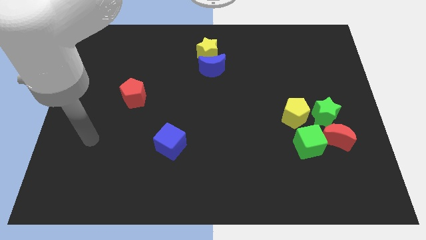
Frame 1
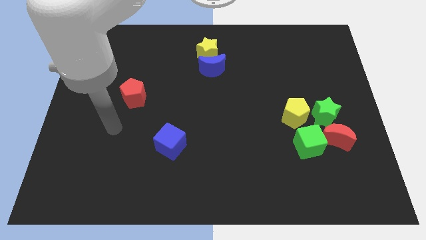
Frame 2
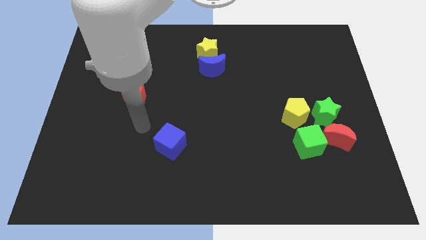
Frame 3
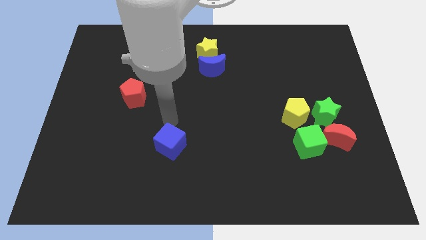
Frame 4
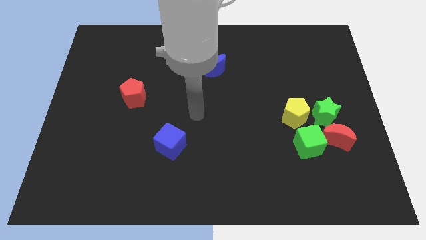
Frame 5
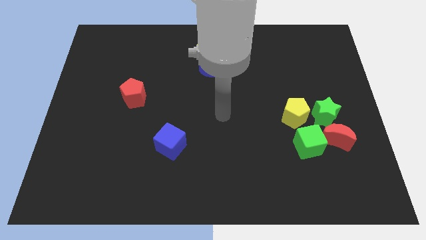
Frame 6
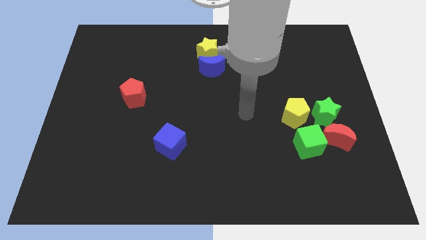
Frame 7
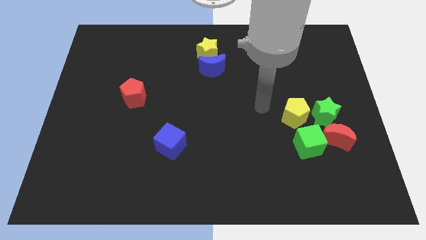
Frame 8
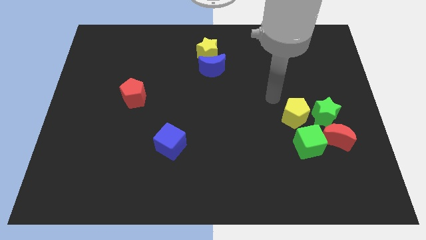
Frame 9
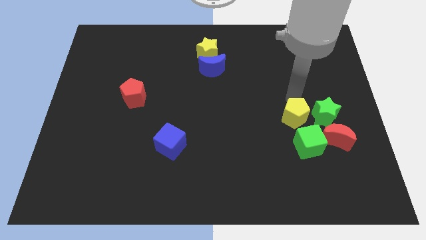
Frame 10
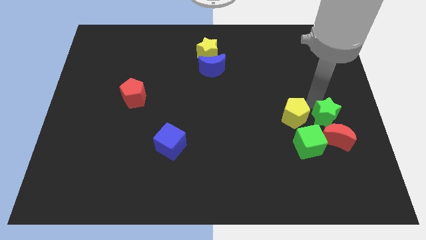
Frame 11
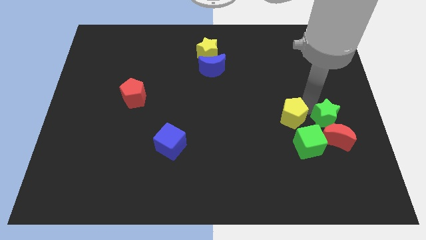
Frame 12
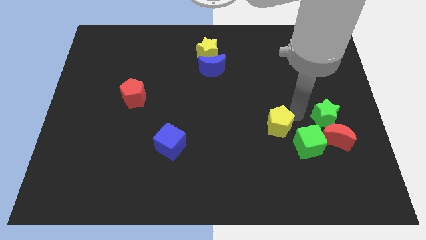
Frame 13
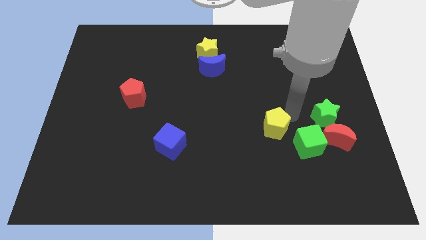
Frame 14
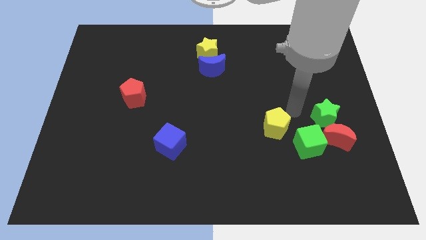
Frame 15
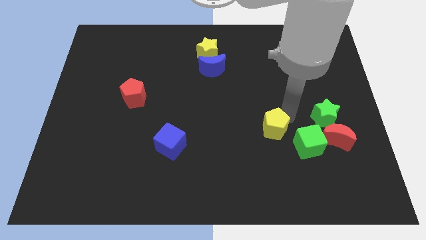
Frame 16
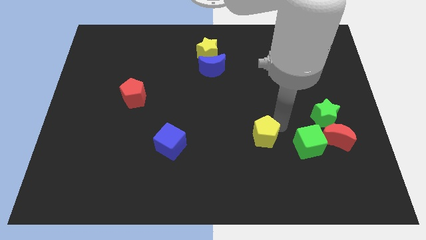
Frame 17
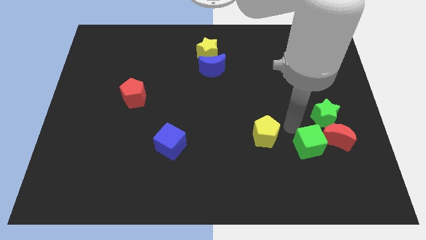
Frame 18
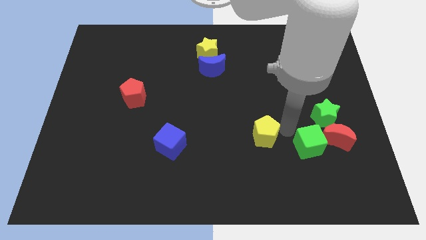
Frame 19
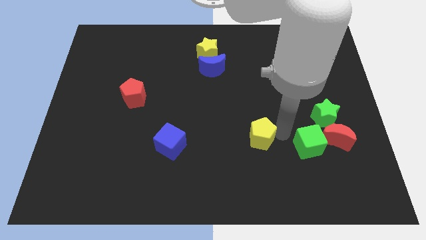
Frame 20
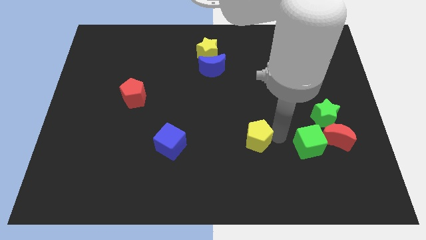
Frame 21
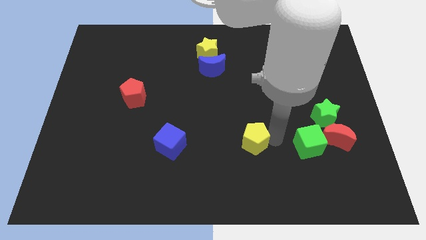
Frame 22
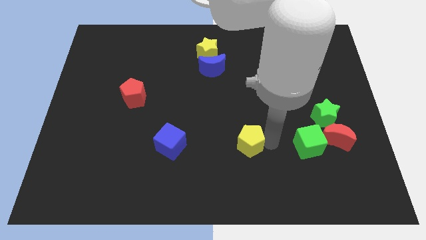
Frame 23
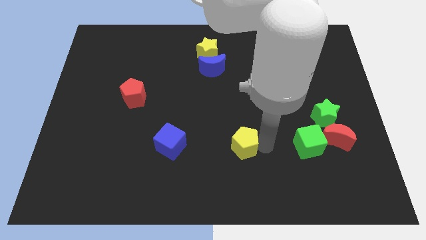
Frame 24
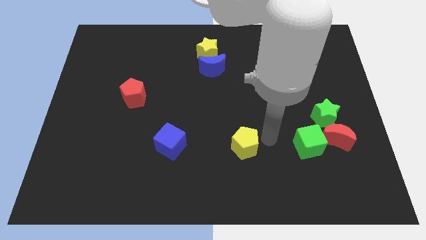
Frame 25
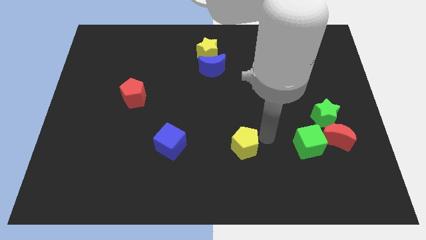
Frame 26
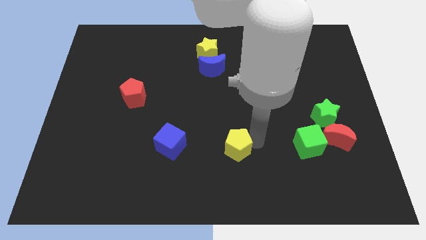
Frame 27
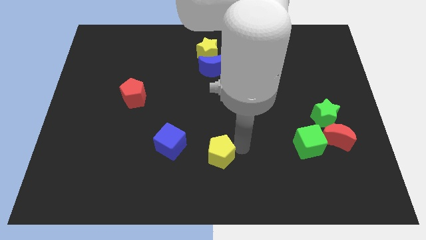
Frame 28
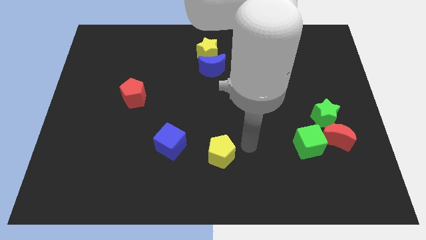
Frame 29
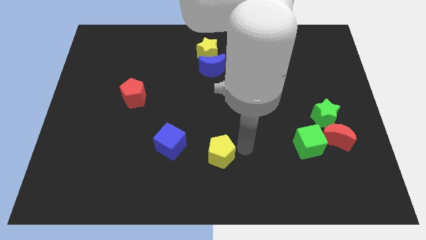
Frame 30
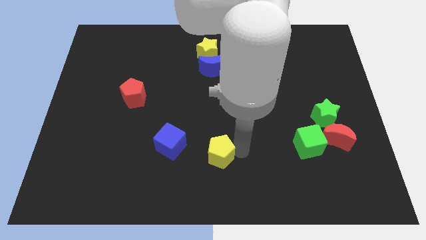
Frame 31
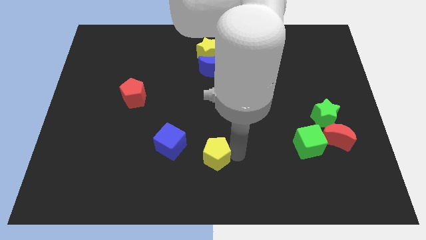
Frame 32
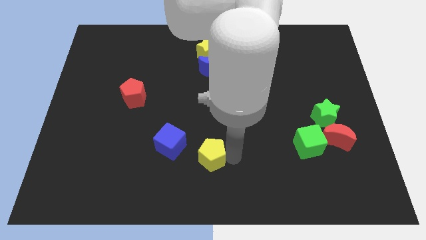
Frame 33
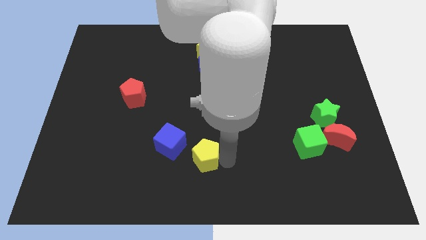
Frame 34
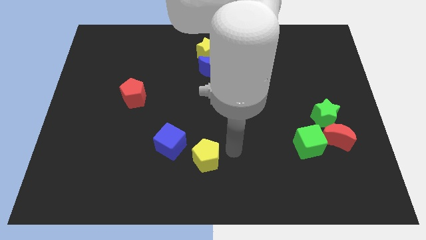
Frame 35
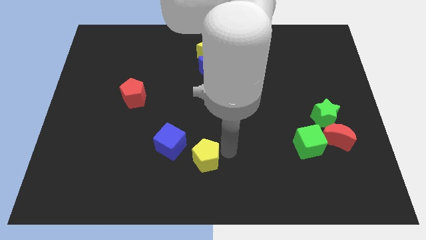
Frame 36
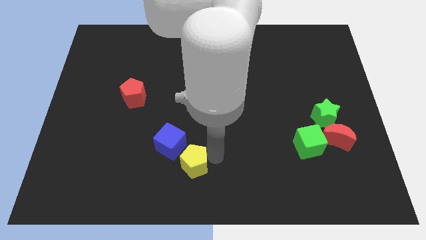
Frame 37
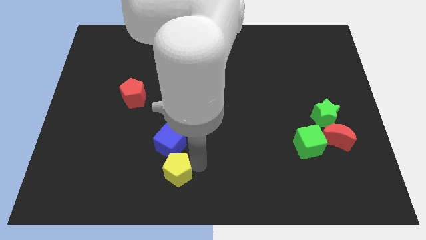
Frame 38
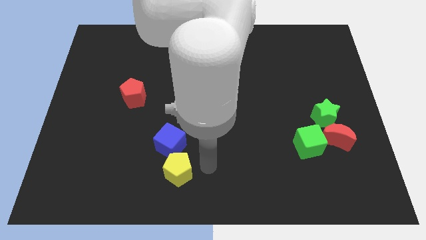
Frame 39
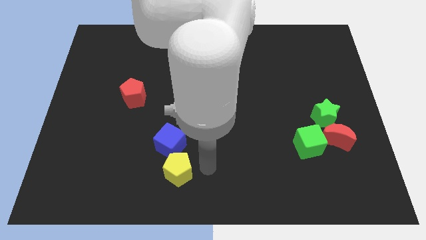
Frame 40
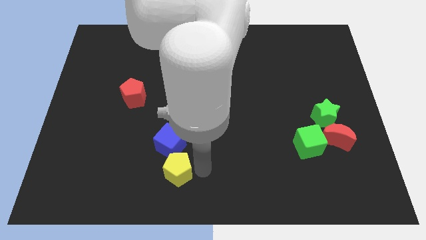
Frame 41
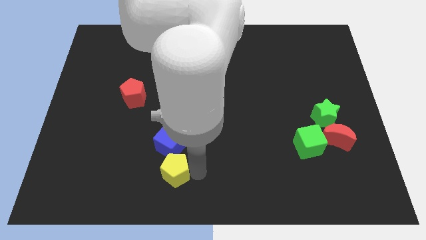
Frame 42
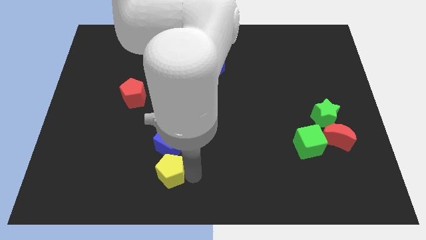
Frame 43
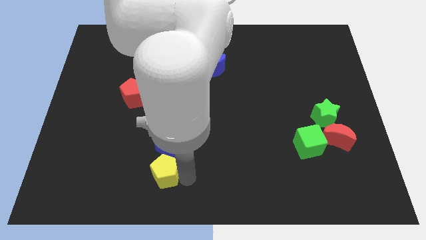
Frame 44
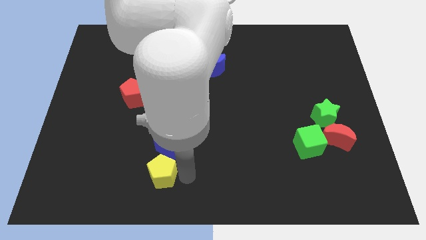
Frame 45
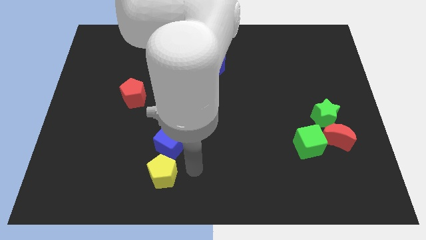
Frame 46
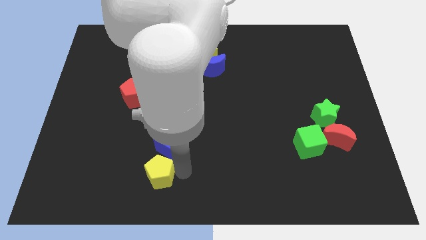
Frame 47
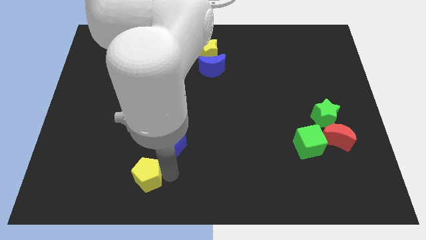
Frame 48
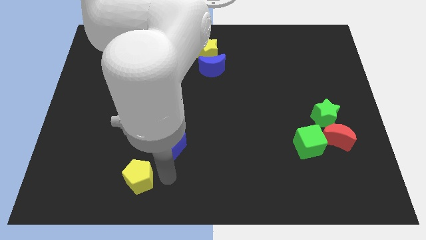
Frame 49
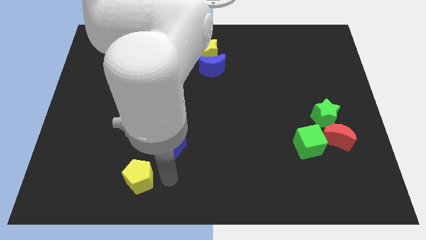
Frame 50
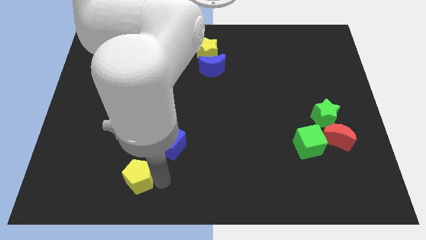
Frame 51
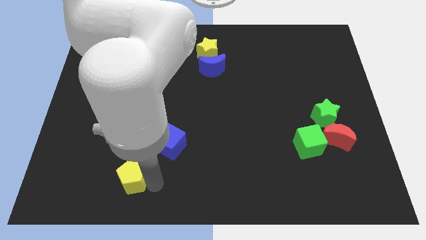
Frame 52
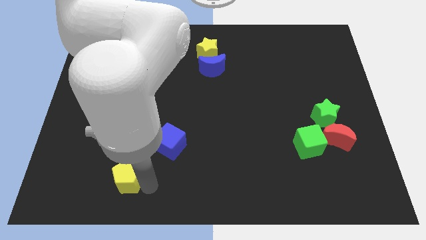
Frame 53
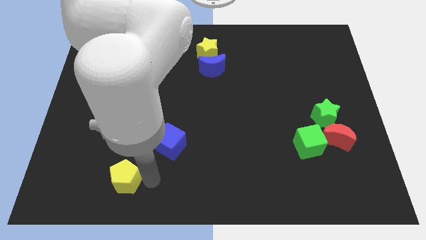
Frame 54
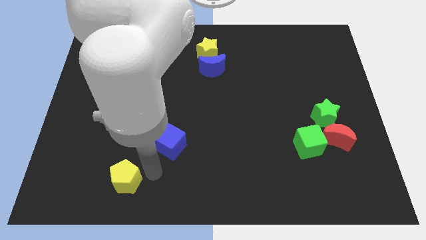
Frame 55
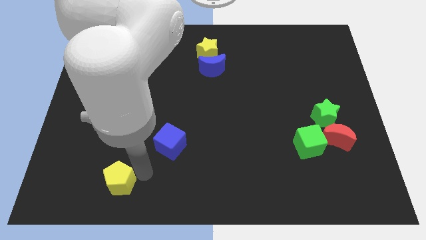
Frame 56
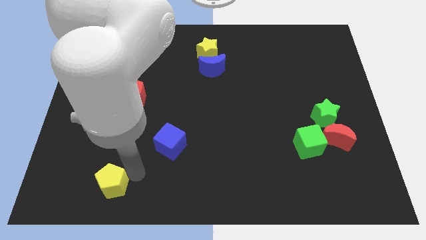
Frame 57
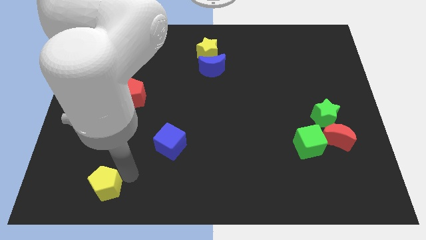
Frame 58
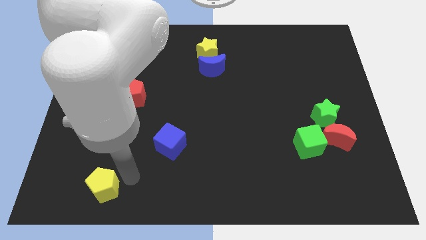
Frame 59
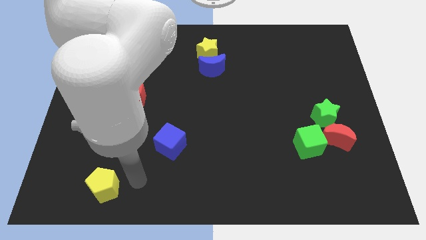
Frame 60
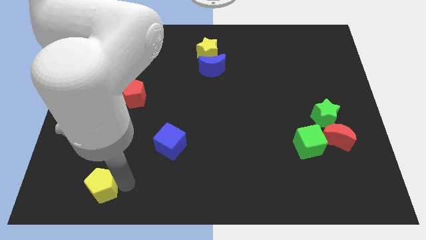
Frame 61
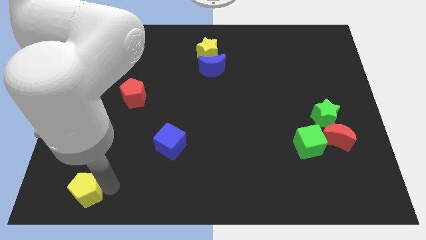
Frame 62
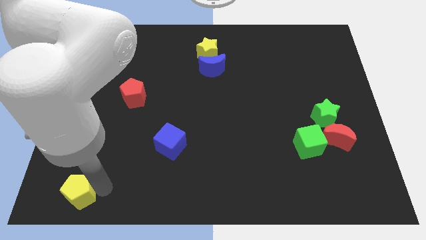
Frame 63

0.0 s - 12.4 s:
put the yellow pentagon to the bottom left of the board
